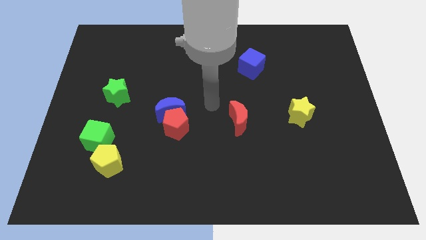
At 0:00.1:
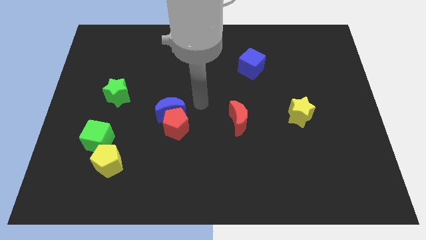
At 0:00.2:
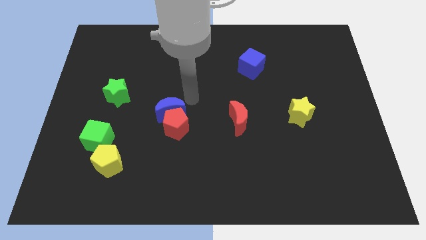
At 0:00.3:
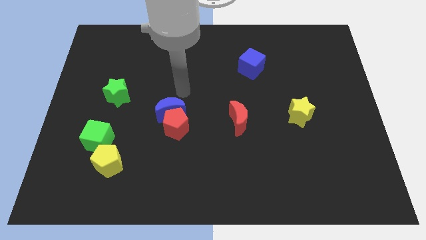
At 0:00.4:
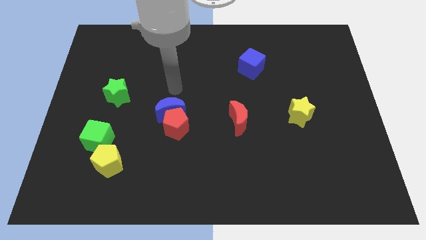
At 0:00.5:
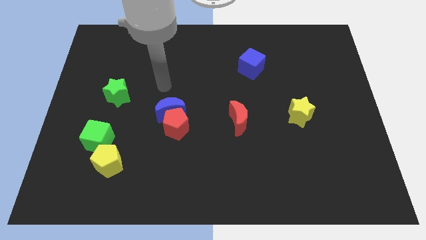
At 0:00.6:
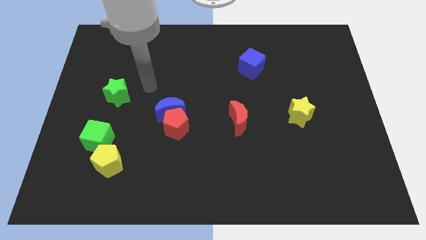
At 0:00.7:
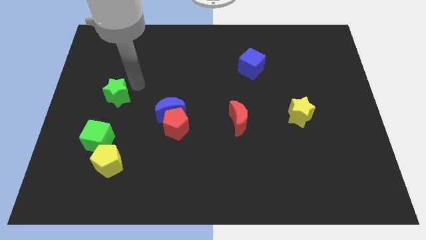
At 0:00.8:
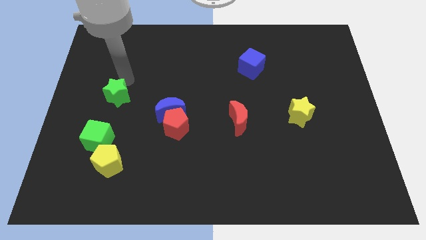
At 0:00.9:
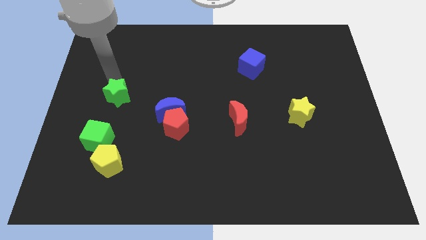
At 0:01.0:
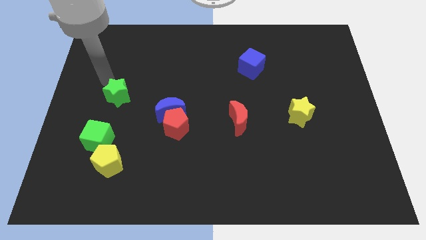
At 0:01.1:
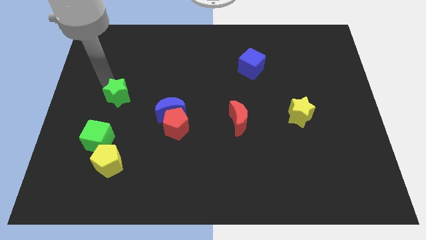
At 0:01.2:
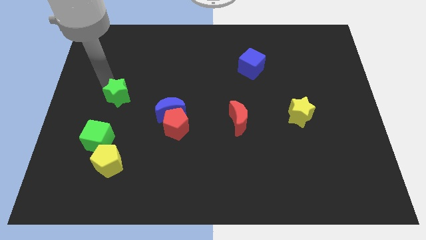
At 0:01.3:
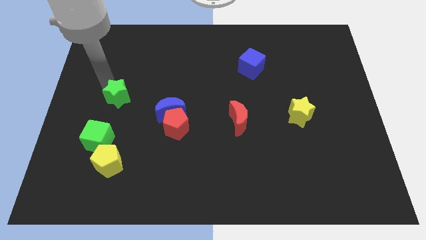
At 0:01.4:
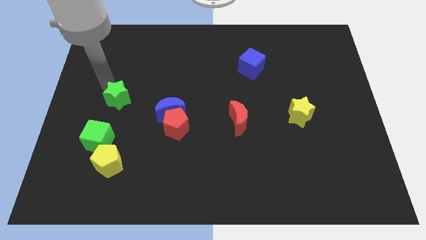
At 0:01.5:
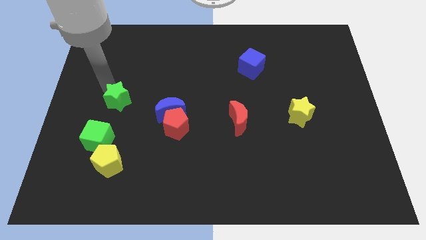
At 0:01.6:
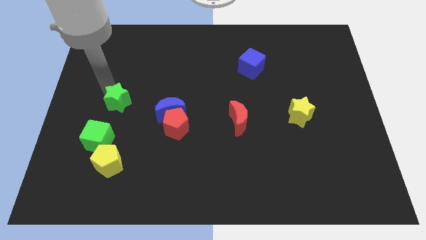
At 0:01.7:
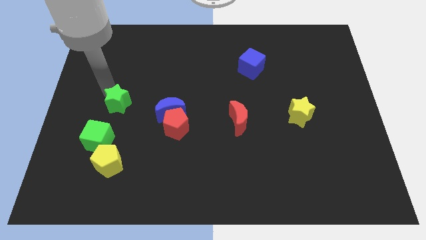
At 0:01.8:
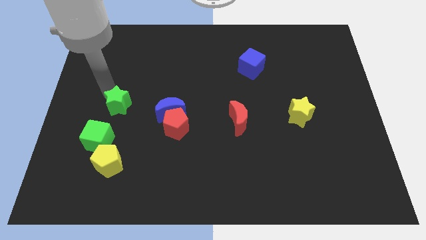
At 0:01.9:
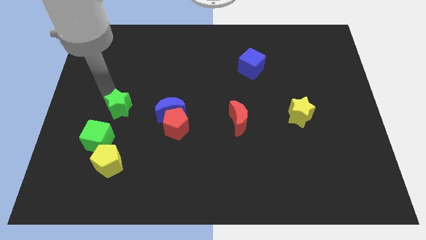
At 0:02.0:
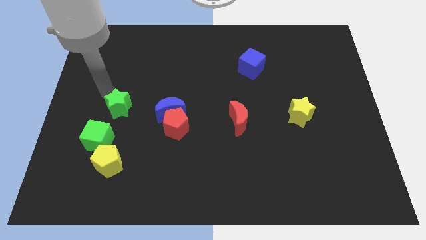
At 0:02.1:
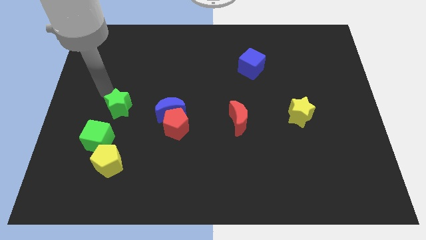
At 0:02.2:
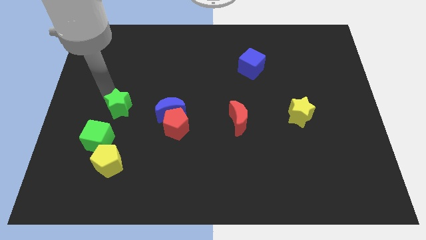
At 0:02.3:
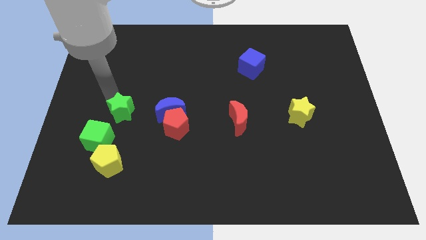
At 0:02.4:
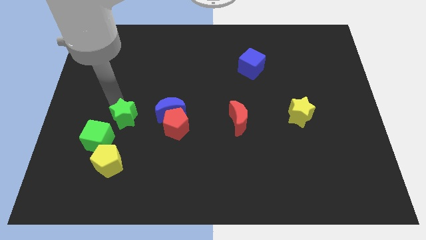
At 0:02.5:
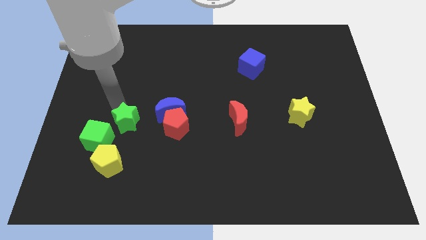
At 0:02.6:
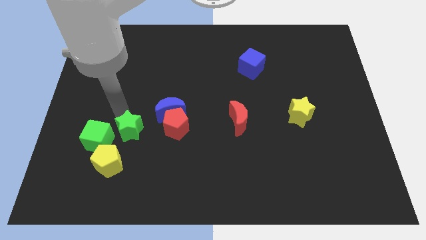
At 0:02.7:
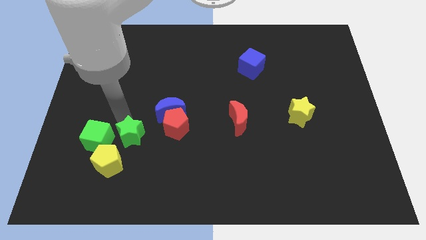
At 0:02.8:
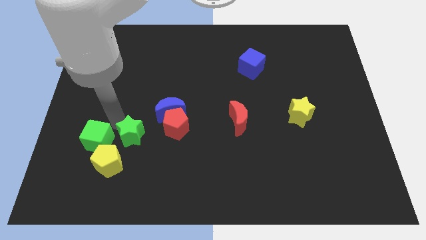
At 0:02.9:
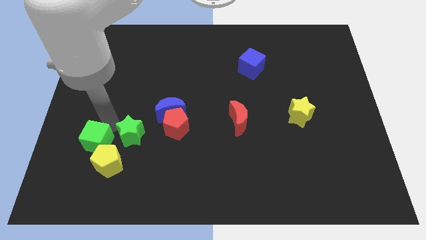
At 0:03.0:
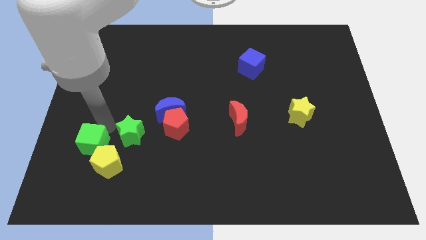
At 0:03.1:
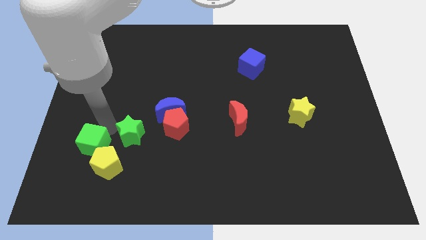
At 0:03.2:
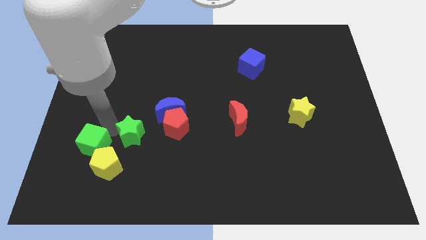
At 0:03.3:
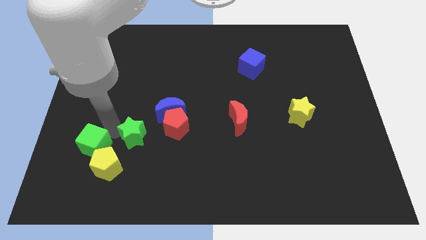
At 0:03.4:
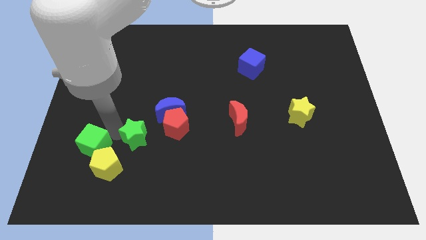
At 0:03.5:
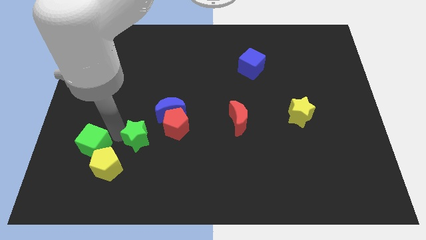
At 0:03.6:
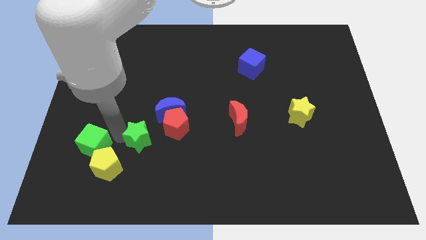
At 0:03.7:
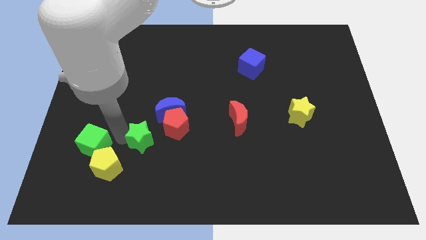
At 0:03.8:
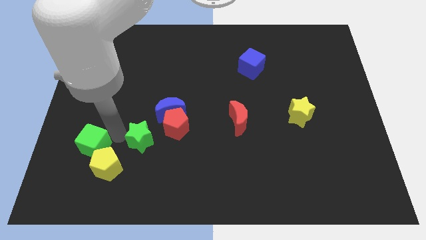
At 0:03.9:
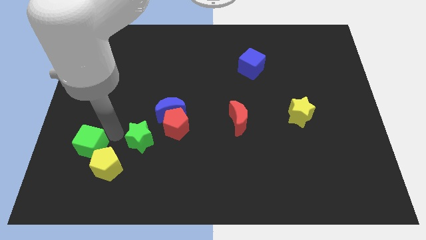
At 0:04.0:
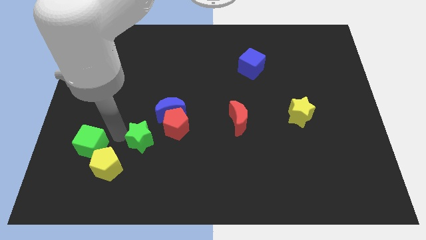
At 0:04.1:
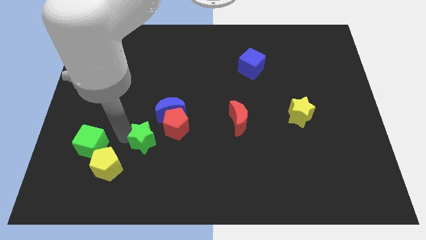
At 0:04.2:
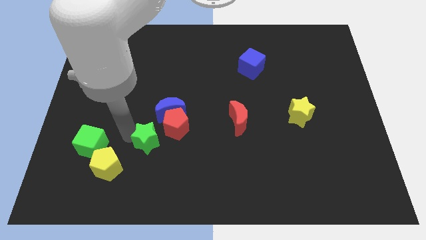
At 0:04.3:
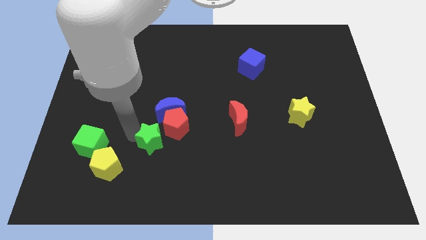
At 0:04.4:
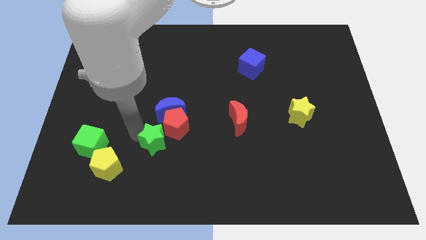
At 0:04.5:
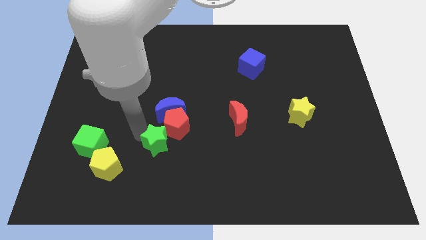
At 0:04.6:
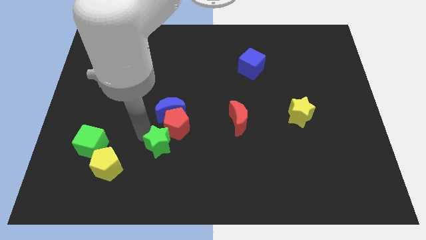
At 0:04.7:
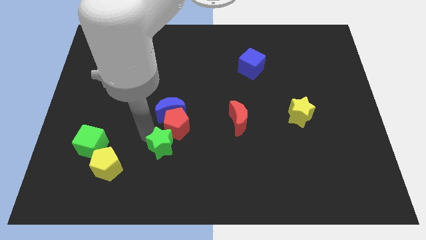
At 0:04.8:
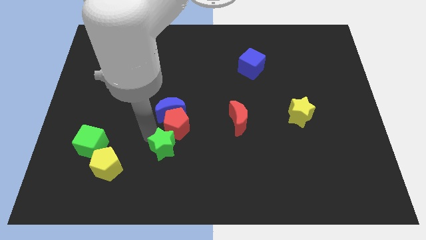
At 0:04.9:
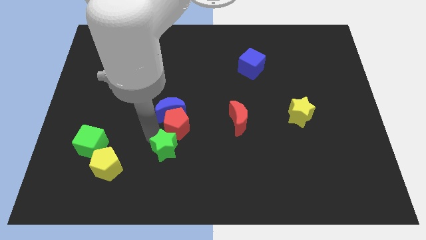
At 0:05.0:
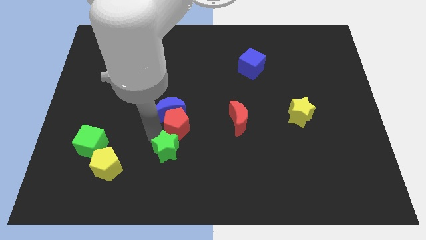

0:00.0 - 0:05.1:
move the green star downwards and right diagonally

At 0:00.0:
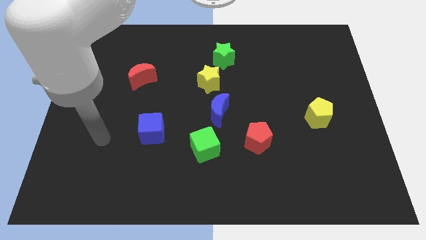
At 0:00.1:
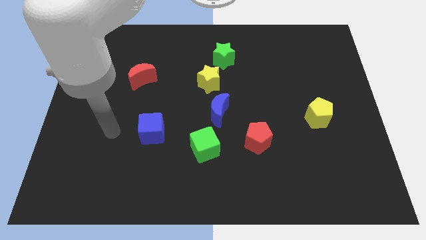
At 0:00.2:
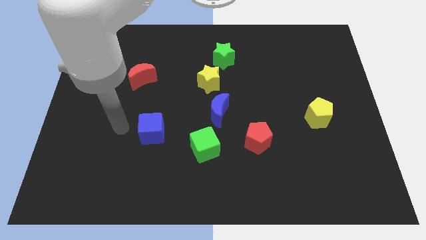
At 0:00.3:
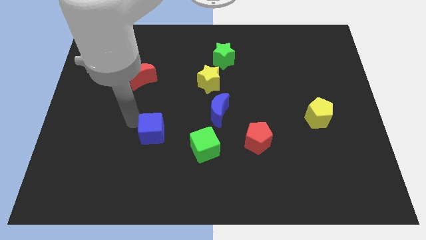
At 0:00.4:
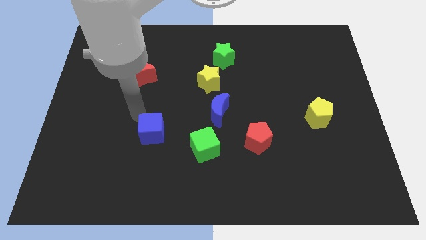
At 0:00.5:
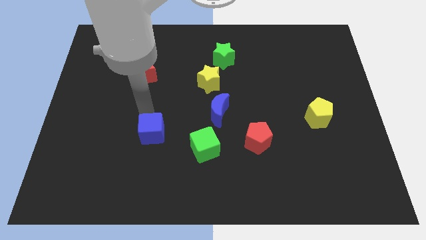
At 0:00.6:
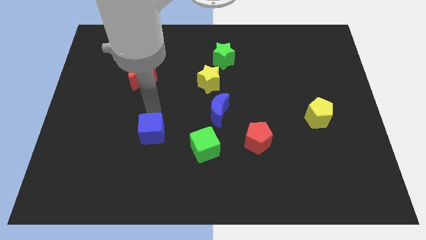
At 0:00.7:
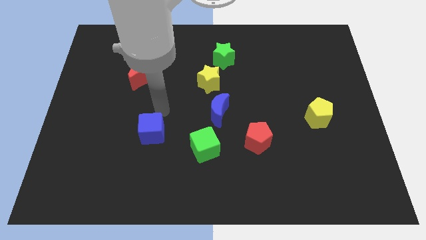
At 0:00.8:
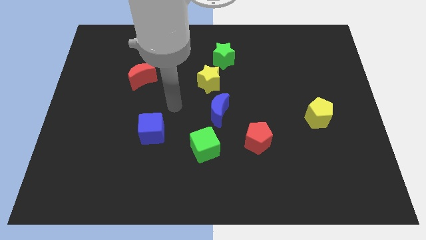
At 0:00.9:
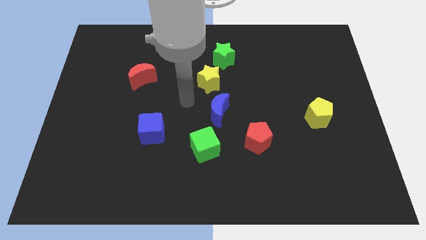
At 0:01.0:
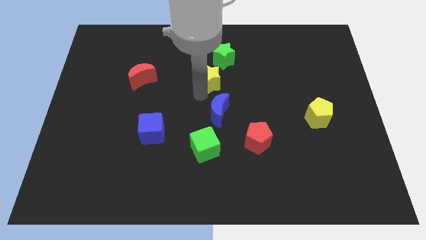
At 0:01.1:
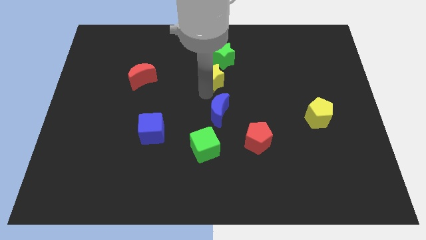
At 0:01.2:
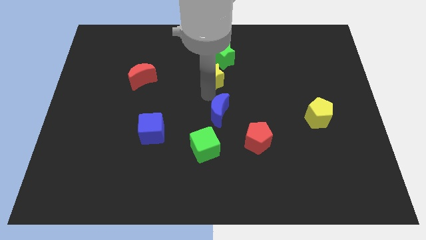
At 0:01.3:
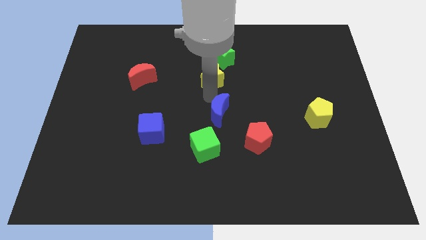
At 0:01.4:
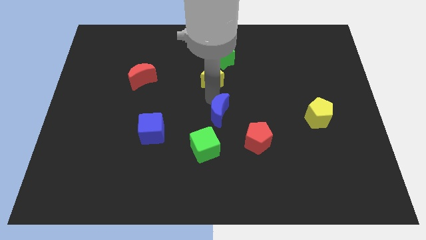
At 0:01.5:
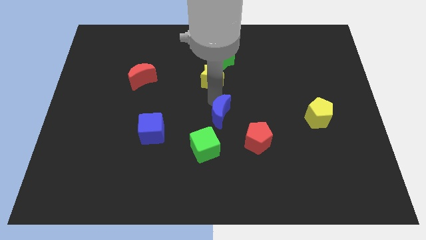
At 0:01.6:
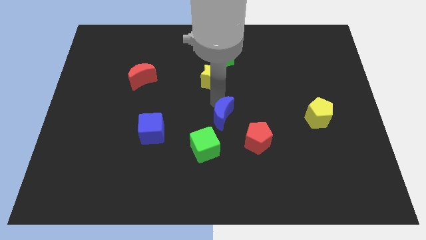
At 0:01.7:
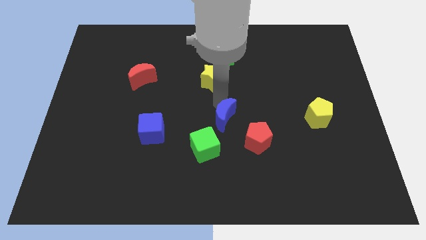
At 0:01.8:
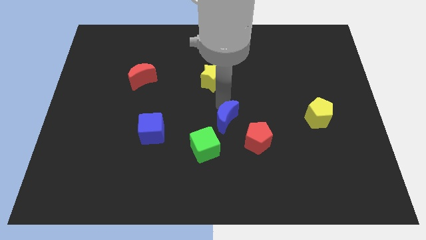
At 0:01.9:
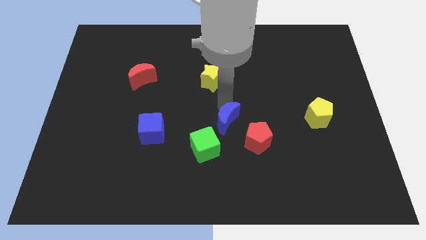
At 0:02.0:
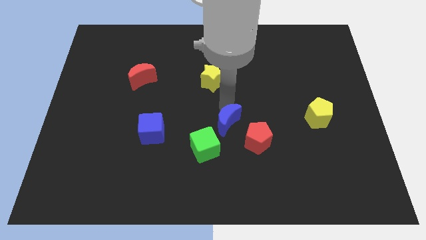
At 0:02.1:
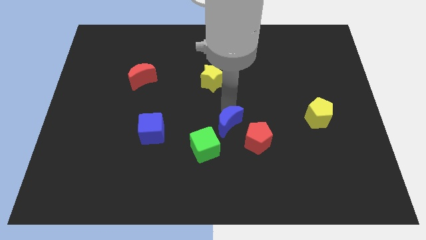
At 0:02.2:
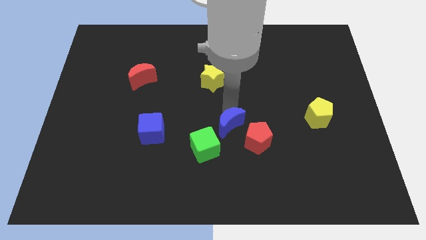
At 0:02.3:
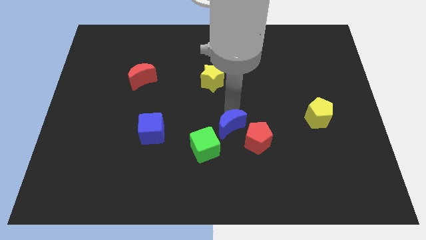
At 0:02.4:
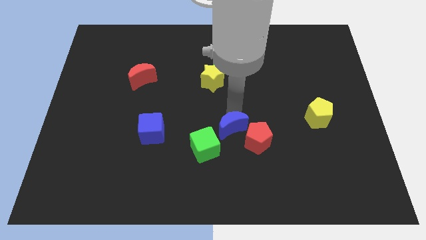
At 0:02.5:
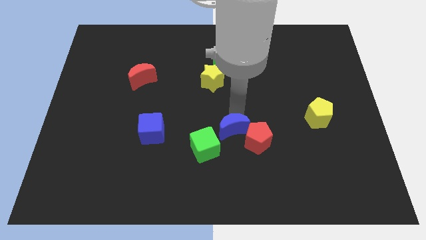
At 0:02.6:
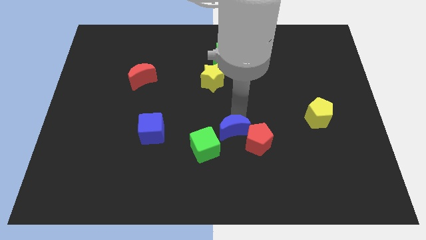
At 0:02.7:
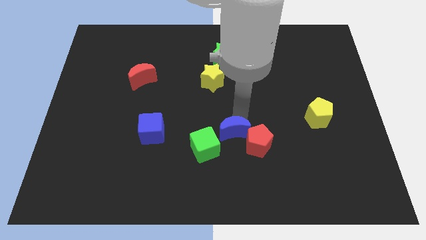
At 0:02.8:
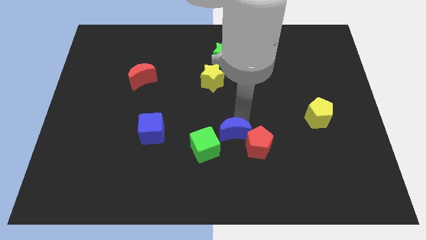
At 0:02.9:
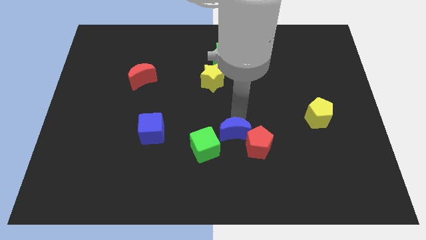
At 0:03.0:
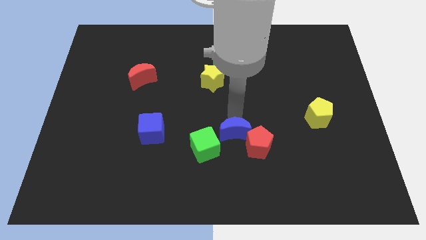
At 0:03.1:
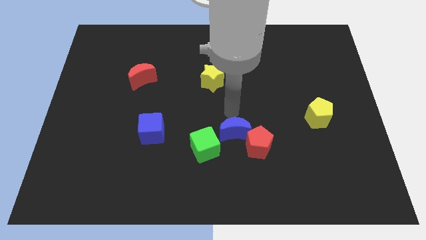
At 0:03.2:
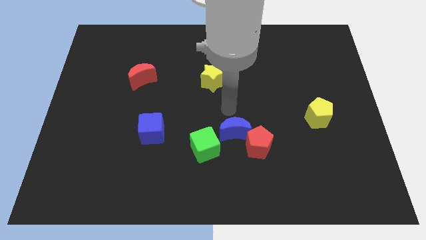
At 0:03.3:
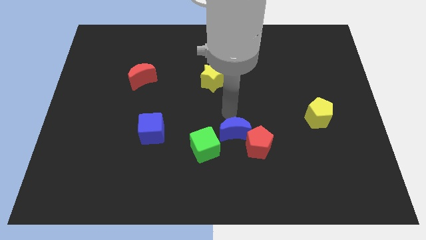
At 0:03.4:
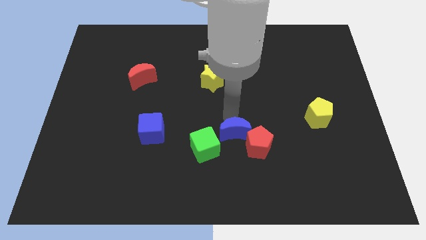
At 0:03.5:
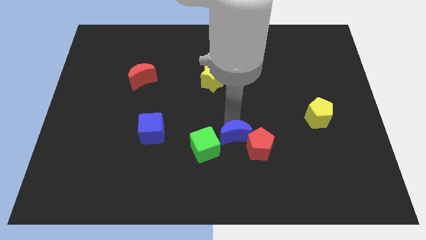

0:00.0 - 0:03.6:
move the blue moon a little downwards and right
